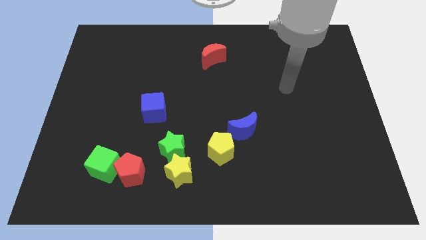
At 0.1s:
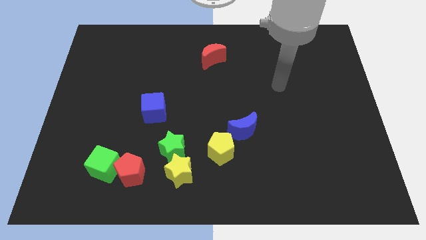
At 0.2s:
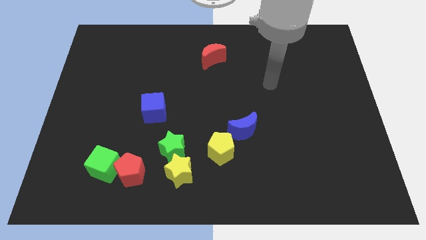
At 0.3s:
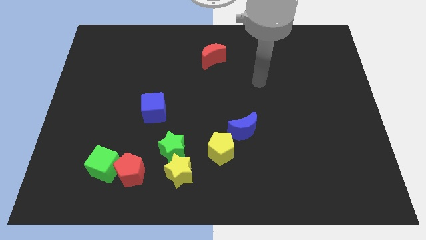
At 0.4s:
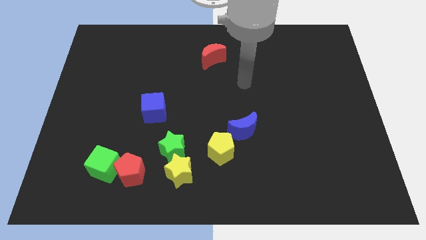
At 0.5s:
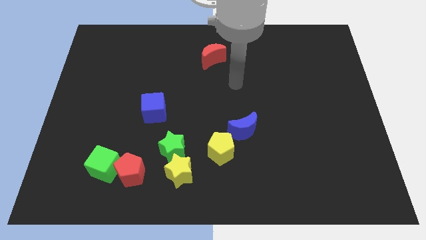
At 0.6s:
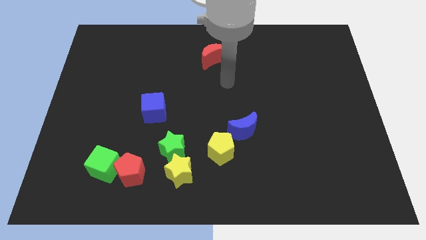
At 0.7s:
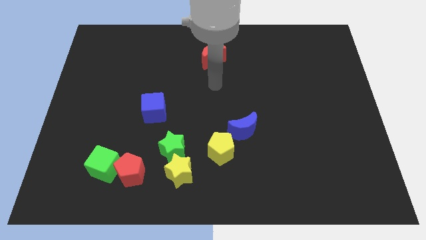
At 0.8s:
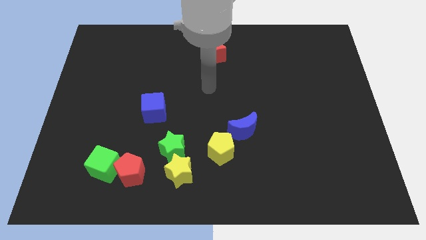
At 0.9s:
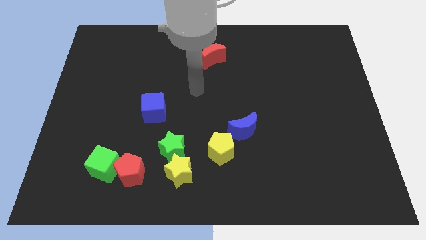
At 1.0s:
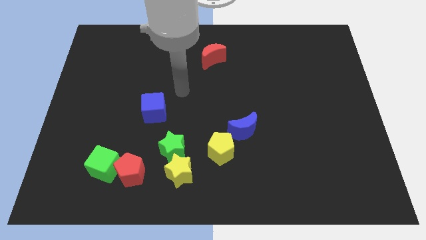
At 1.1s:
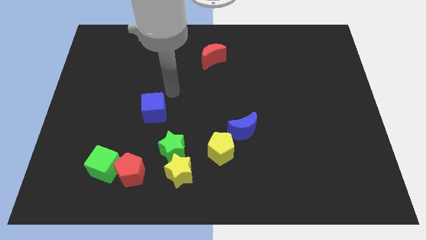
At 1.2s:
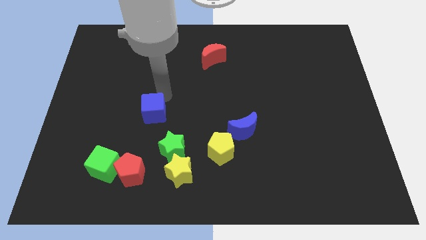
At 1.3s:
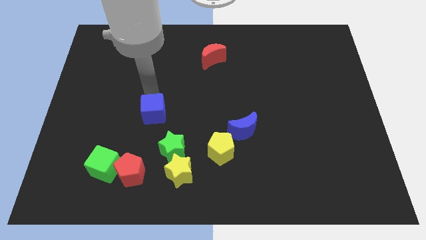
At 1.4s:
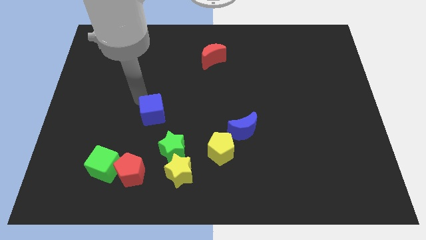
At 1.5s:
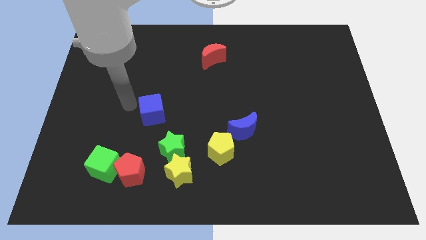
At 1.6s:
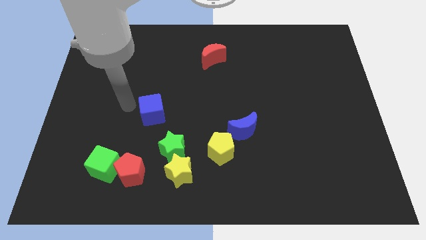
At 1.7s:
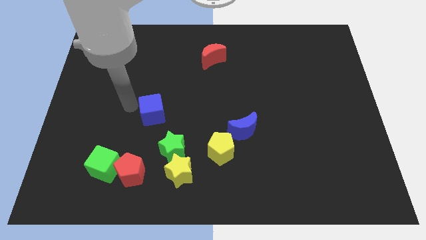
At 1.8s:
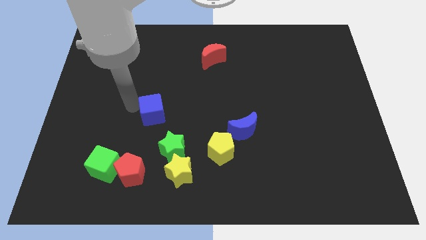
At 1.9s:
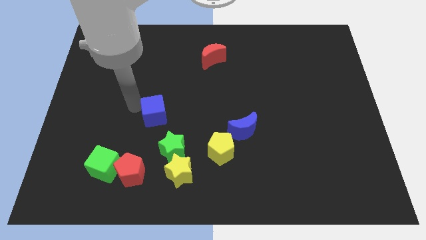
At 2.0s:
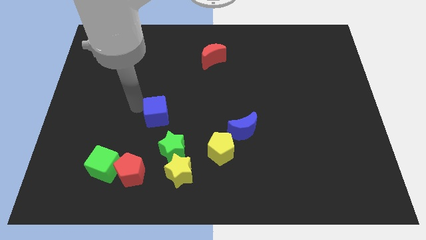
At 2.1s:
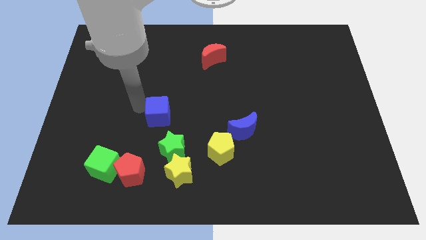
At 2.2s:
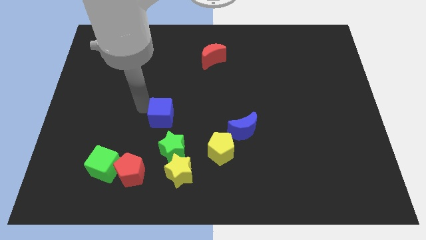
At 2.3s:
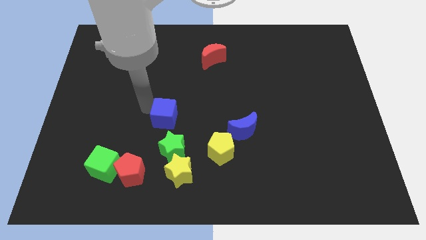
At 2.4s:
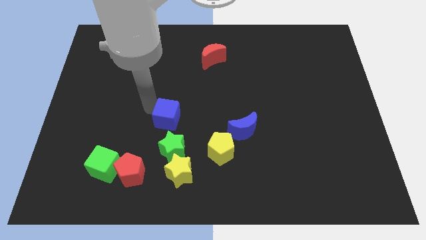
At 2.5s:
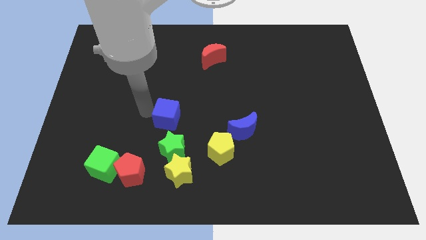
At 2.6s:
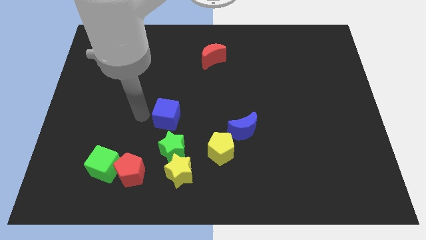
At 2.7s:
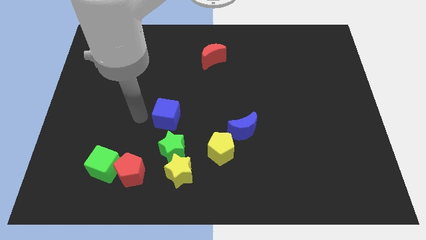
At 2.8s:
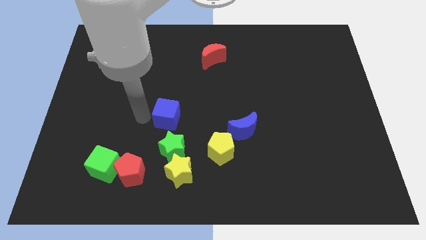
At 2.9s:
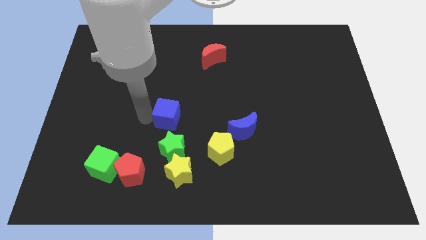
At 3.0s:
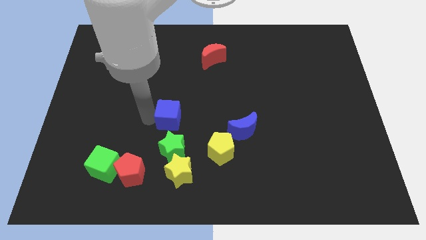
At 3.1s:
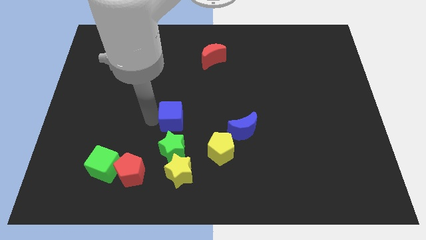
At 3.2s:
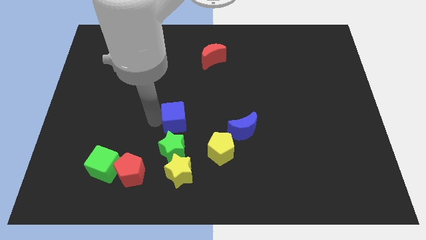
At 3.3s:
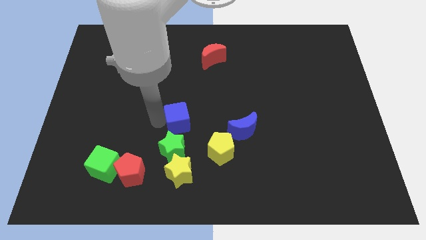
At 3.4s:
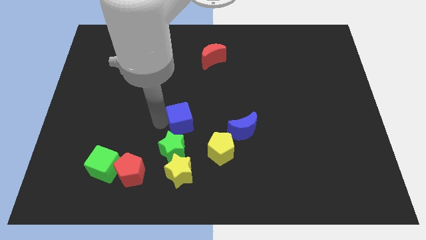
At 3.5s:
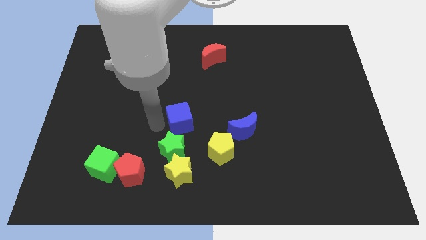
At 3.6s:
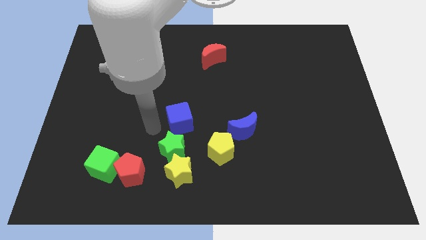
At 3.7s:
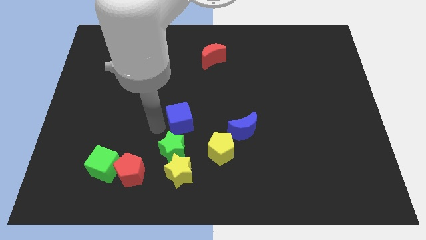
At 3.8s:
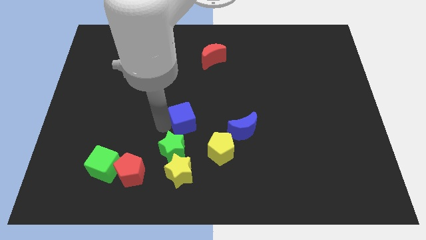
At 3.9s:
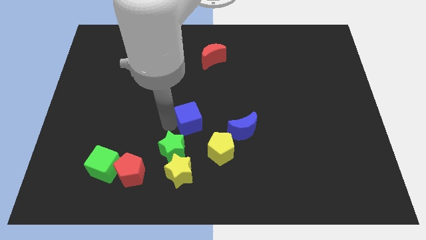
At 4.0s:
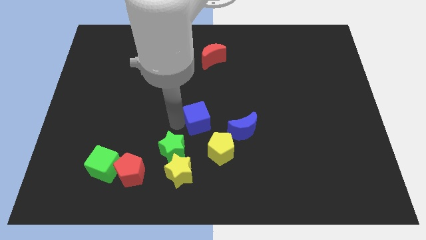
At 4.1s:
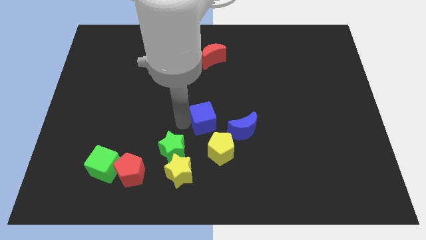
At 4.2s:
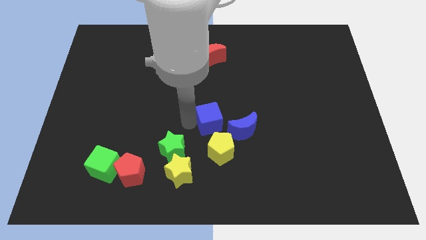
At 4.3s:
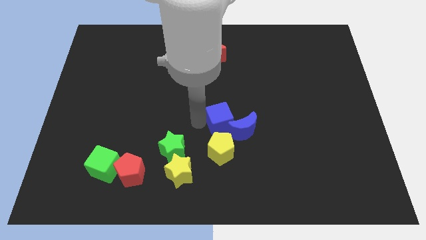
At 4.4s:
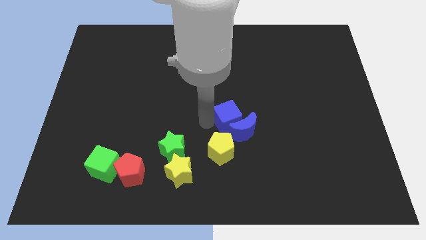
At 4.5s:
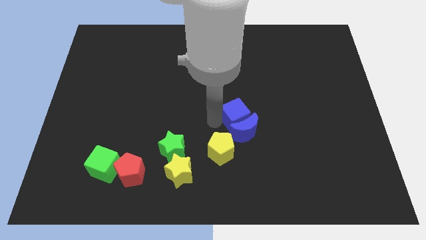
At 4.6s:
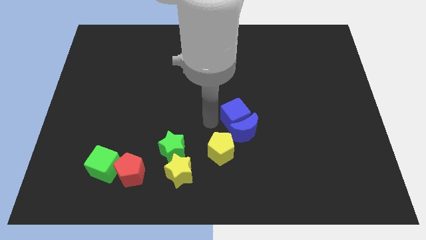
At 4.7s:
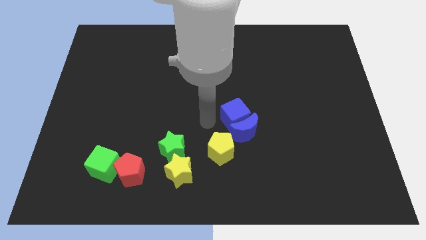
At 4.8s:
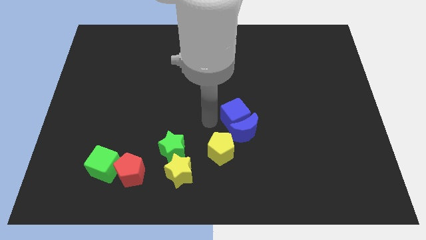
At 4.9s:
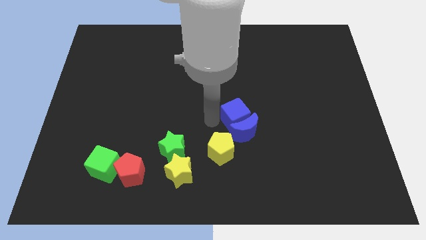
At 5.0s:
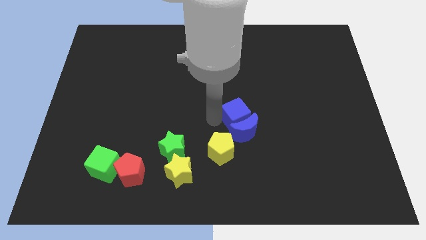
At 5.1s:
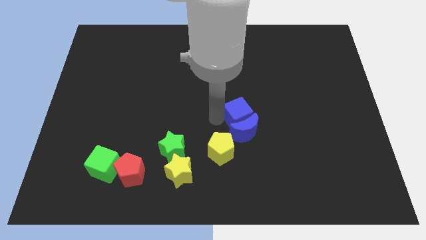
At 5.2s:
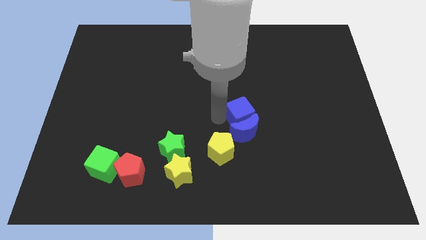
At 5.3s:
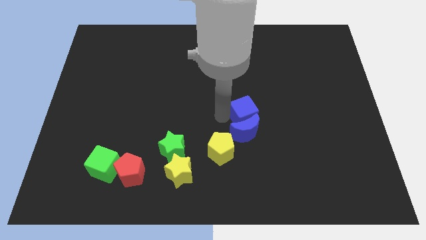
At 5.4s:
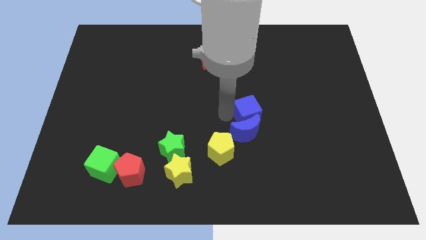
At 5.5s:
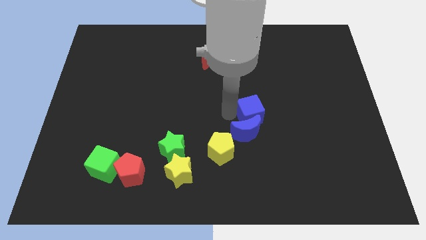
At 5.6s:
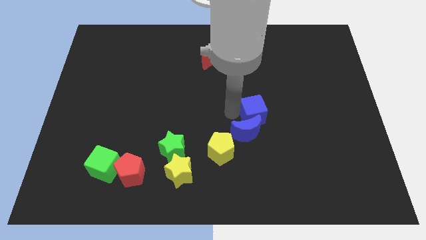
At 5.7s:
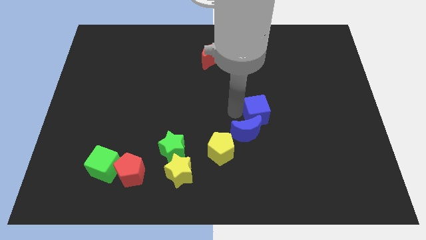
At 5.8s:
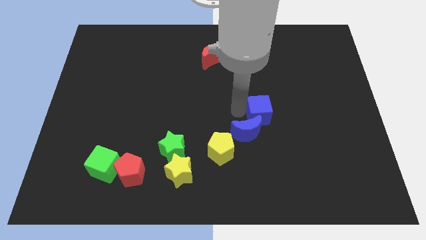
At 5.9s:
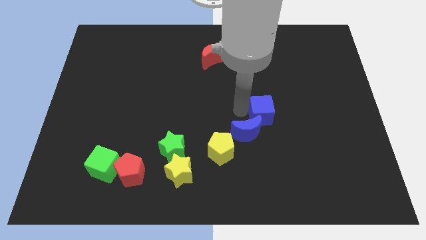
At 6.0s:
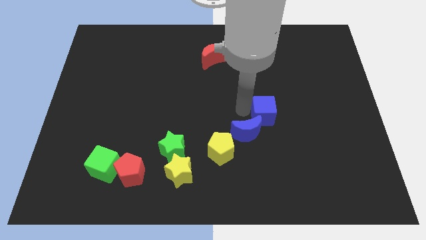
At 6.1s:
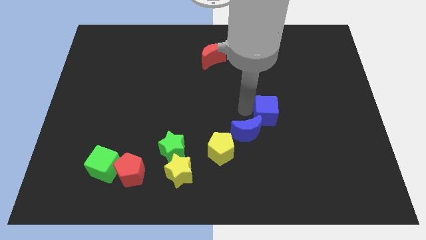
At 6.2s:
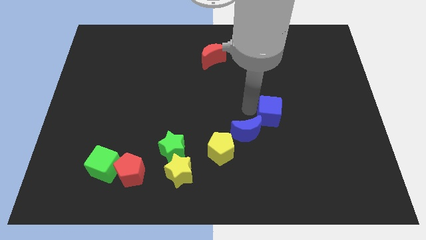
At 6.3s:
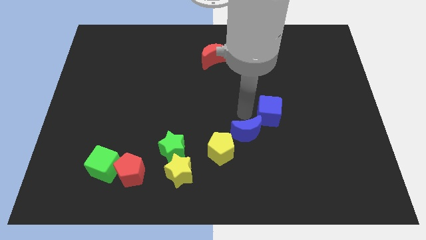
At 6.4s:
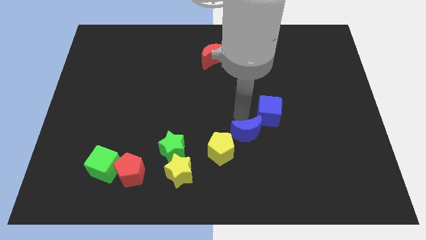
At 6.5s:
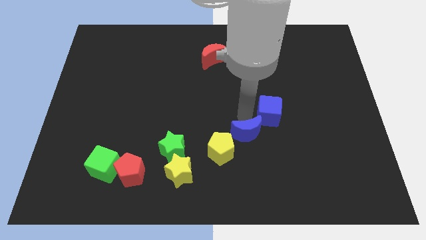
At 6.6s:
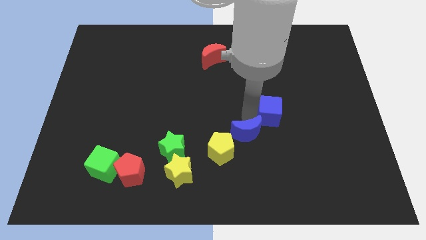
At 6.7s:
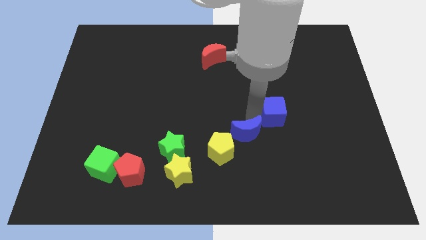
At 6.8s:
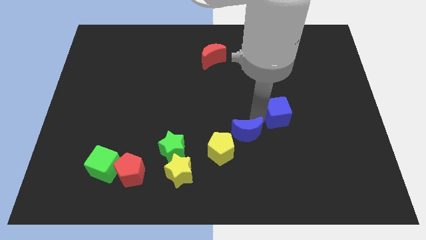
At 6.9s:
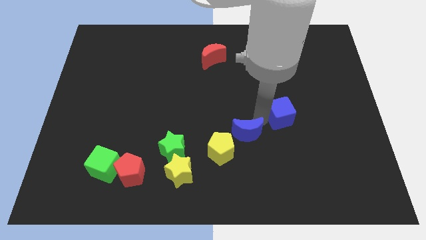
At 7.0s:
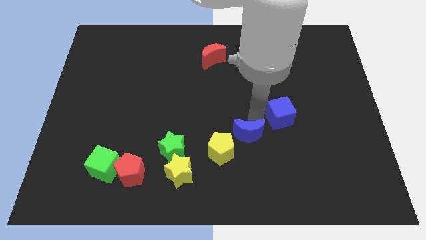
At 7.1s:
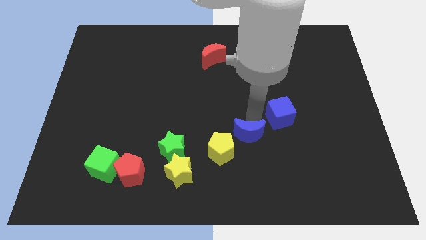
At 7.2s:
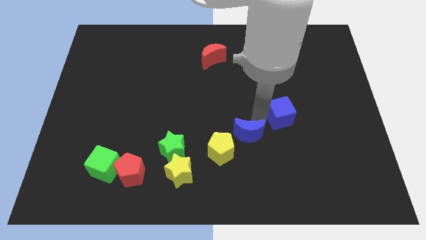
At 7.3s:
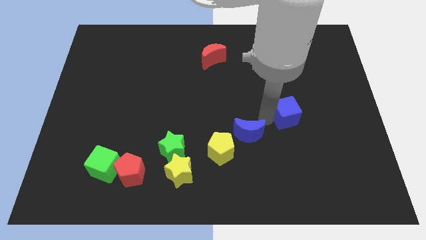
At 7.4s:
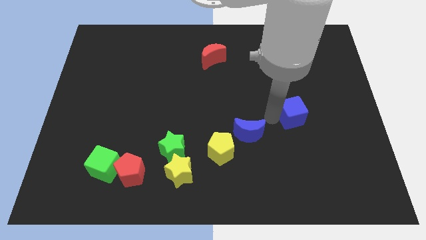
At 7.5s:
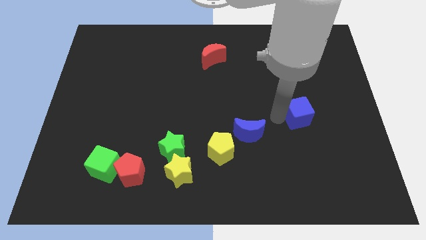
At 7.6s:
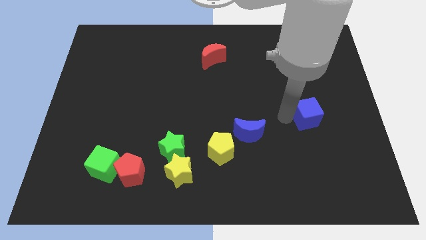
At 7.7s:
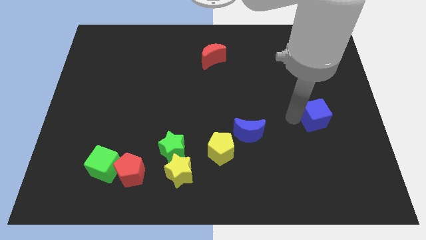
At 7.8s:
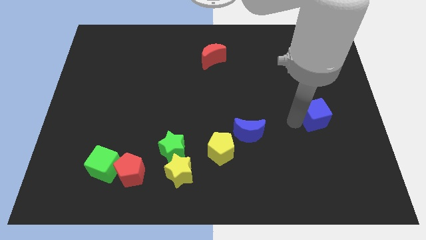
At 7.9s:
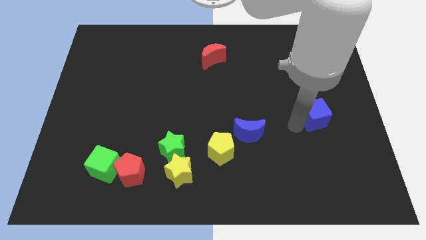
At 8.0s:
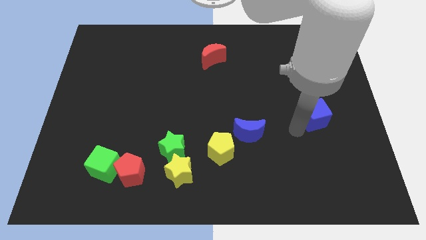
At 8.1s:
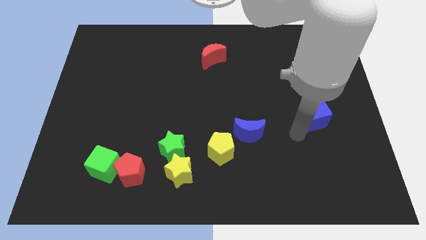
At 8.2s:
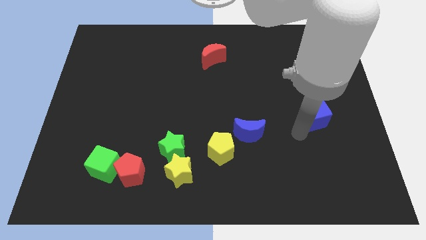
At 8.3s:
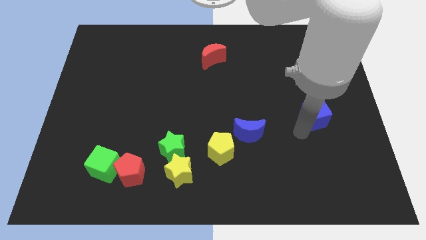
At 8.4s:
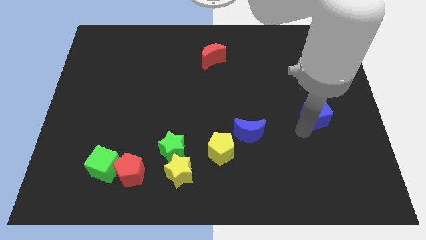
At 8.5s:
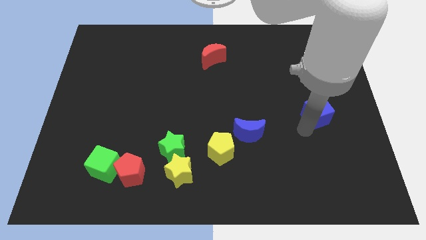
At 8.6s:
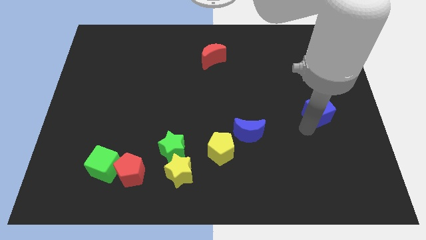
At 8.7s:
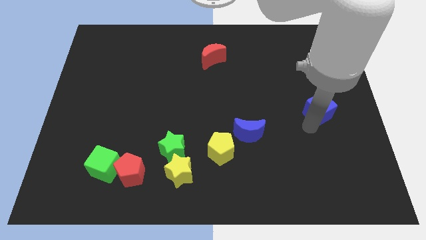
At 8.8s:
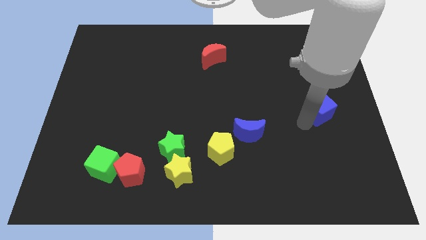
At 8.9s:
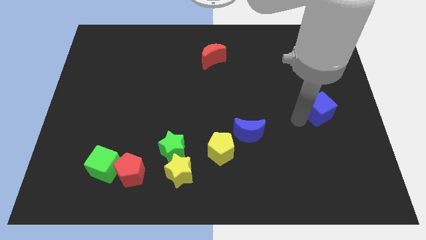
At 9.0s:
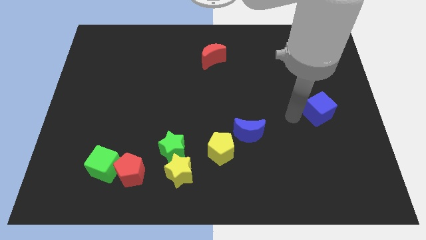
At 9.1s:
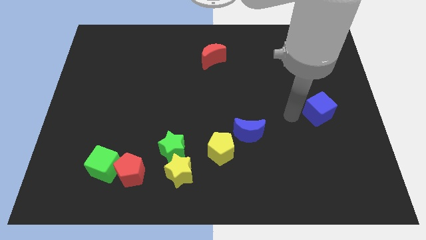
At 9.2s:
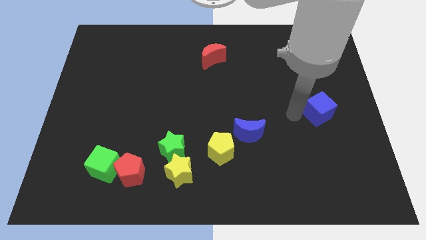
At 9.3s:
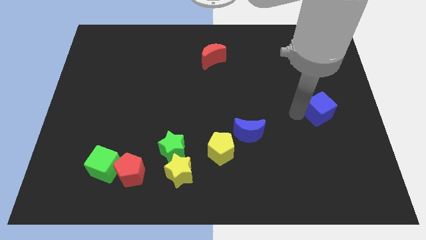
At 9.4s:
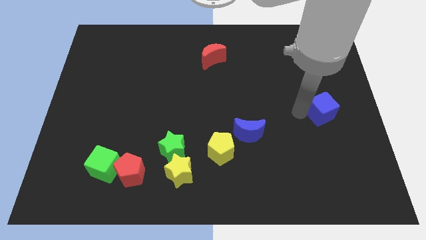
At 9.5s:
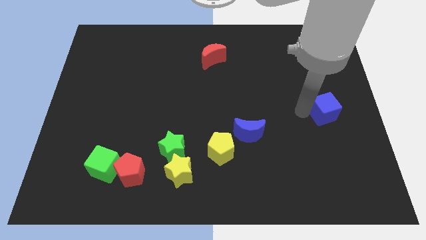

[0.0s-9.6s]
put the blue cube to the center right
